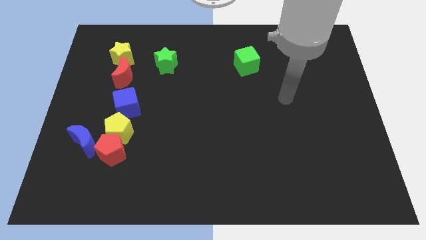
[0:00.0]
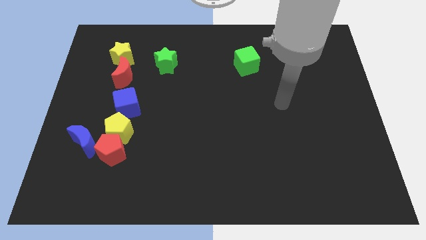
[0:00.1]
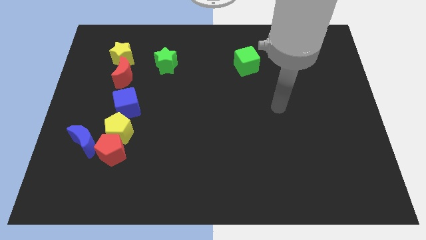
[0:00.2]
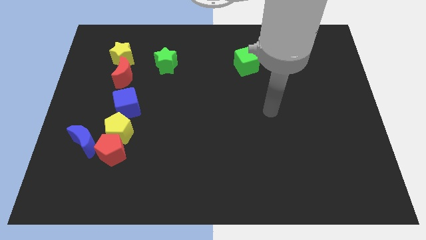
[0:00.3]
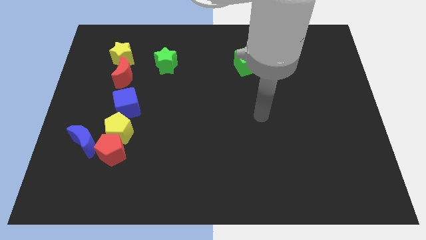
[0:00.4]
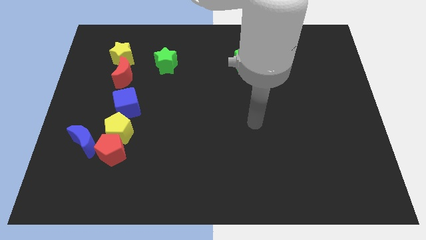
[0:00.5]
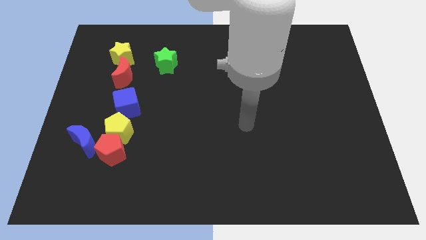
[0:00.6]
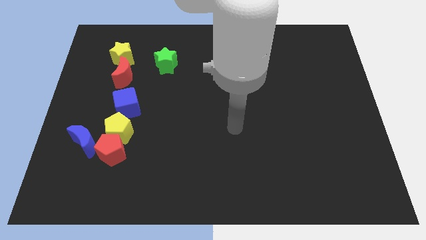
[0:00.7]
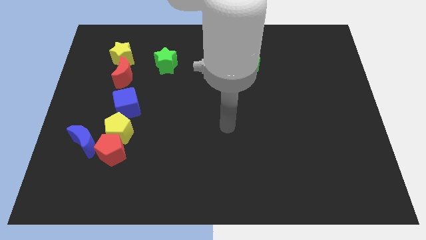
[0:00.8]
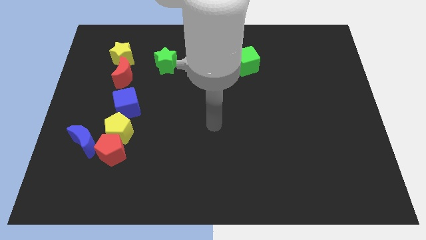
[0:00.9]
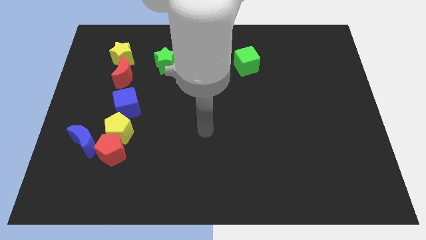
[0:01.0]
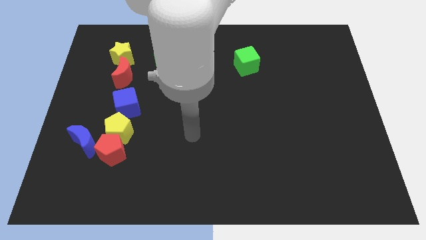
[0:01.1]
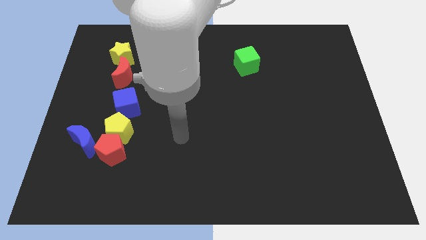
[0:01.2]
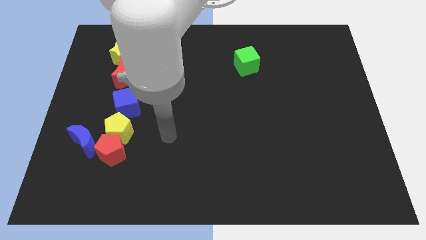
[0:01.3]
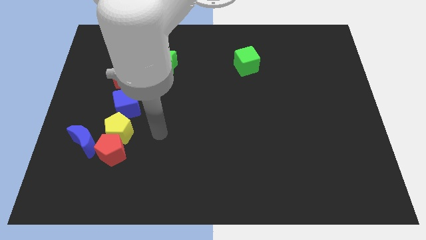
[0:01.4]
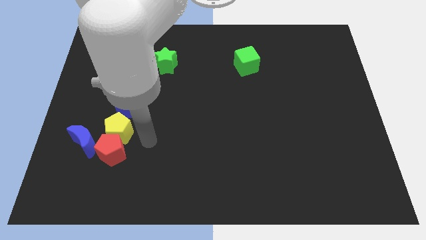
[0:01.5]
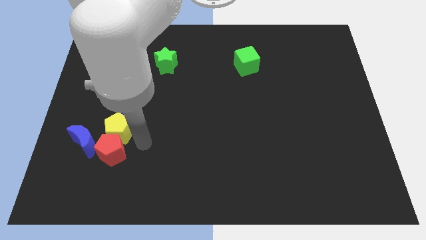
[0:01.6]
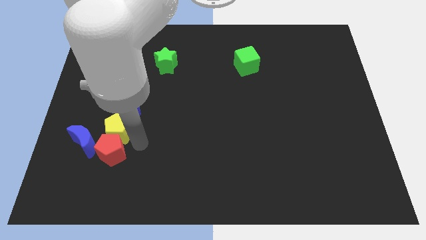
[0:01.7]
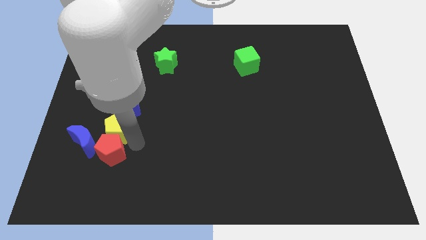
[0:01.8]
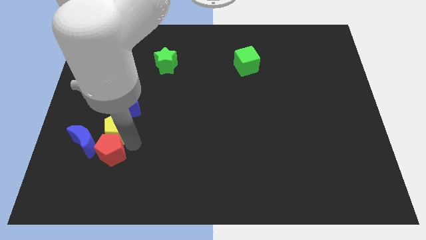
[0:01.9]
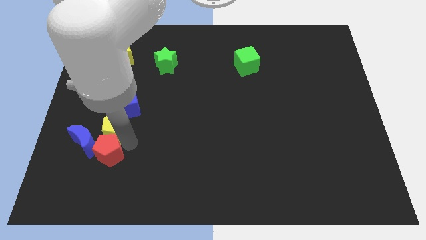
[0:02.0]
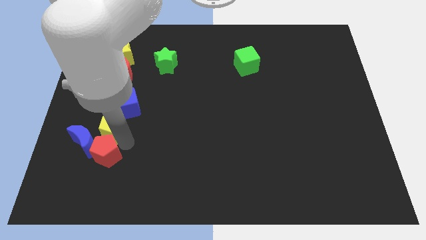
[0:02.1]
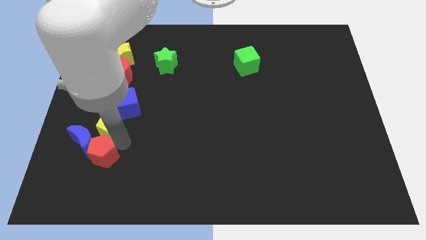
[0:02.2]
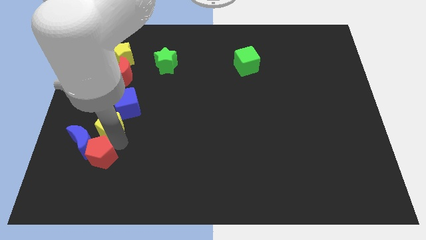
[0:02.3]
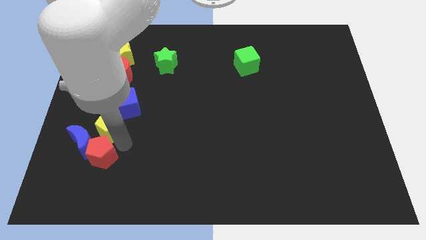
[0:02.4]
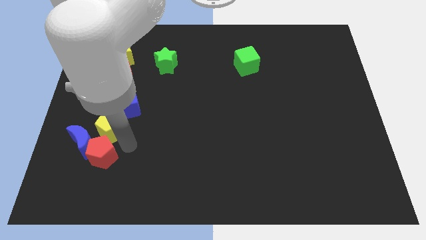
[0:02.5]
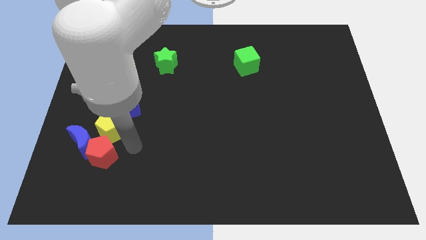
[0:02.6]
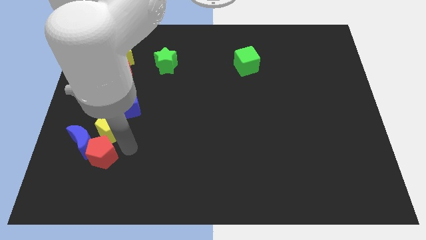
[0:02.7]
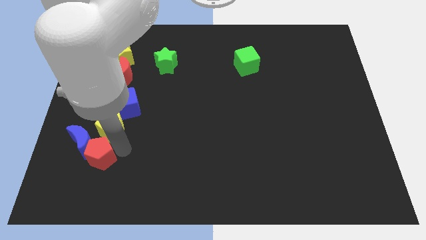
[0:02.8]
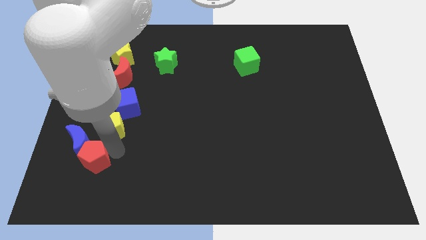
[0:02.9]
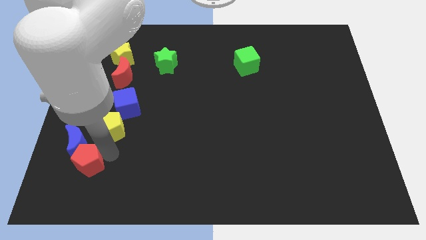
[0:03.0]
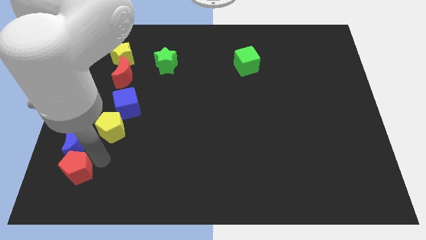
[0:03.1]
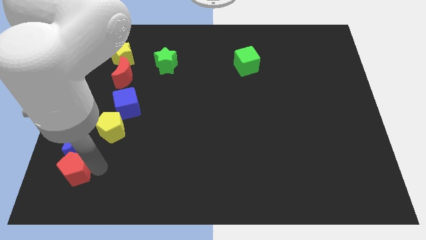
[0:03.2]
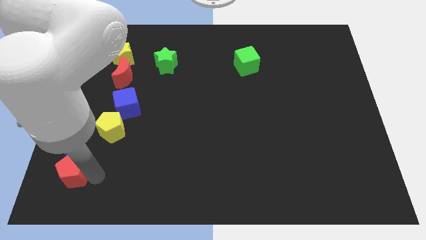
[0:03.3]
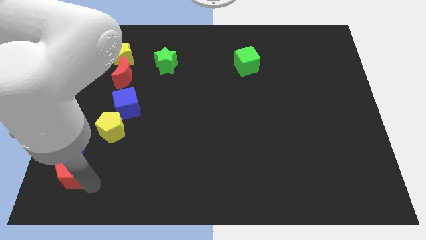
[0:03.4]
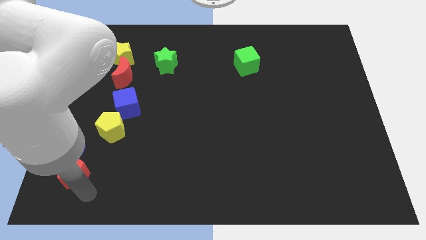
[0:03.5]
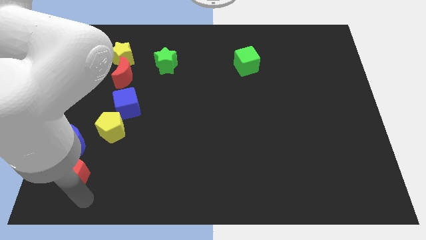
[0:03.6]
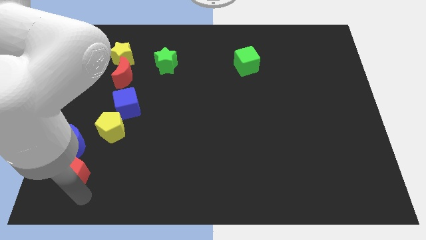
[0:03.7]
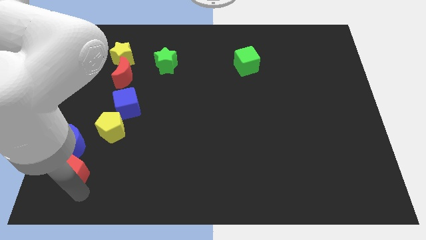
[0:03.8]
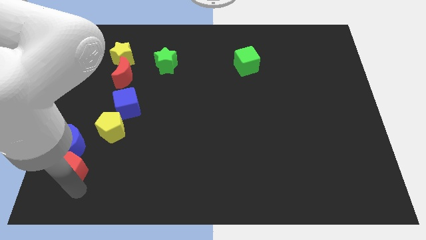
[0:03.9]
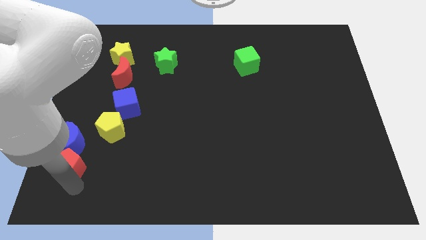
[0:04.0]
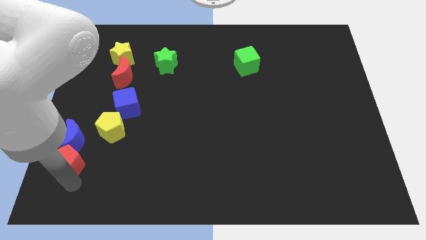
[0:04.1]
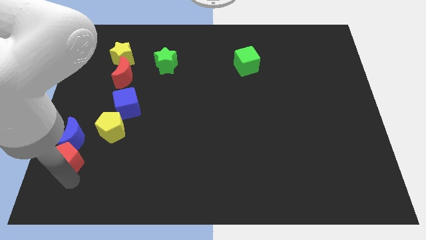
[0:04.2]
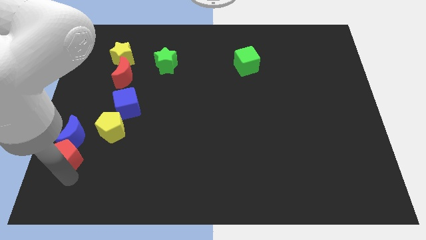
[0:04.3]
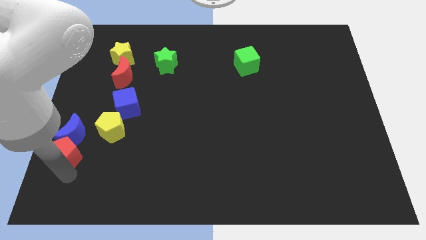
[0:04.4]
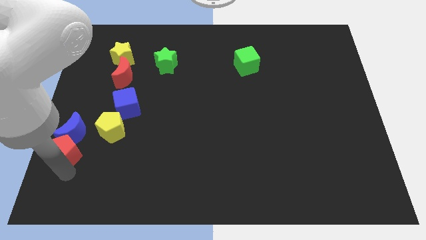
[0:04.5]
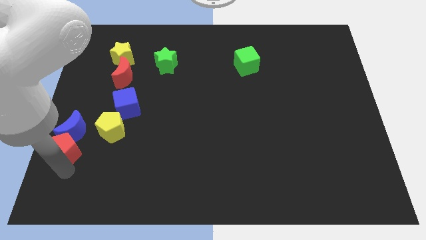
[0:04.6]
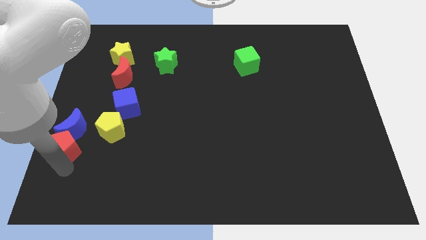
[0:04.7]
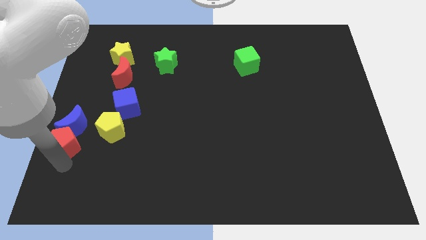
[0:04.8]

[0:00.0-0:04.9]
slide the red pentagon to the center left

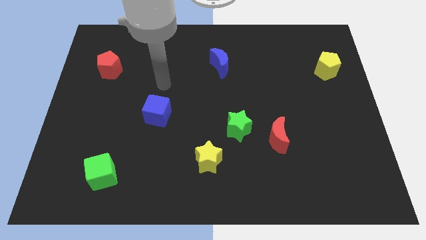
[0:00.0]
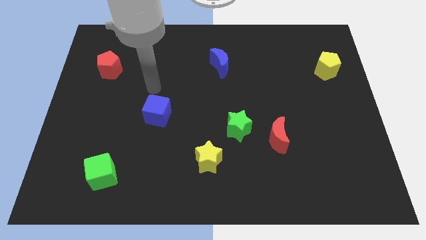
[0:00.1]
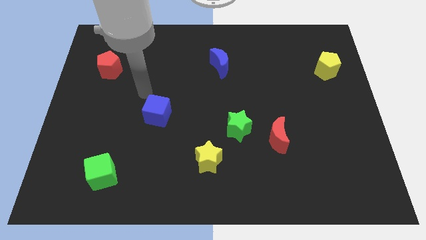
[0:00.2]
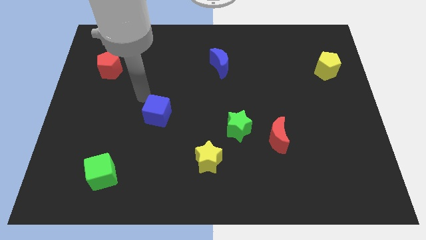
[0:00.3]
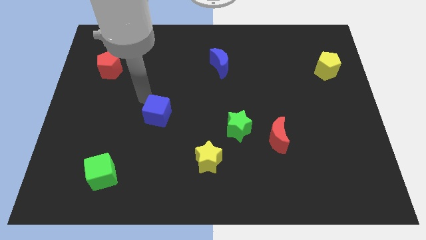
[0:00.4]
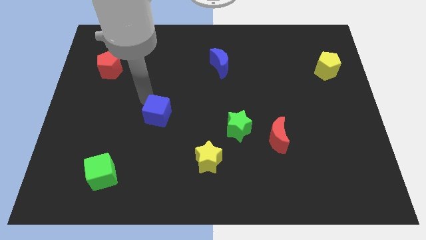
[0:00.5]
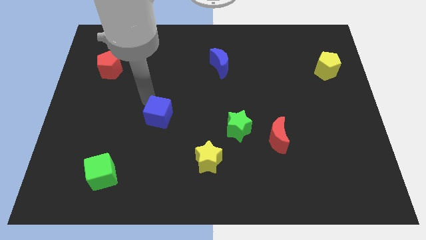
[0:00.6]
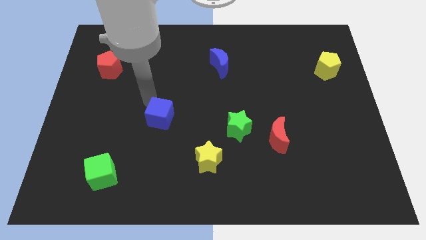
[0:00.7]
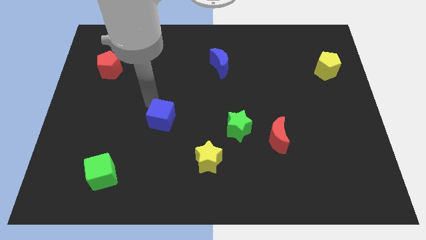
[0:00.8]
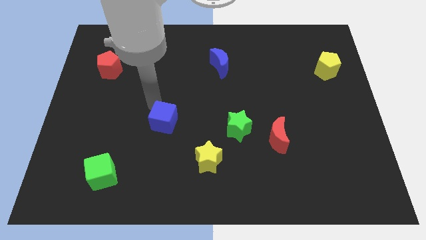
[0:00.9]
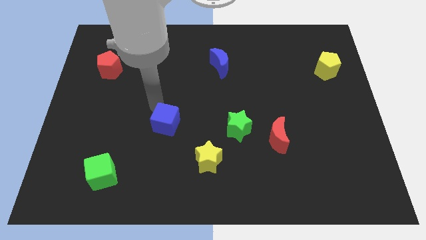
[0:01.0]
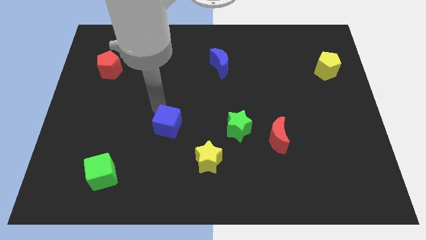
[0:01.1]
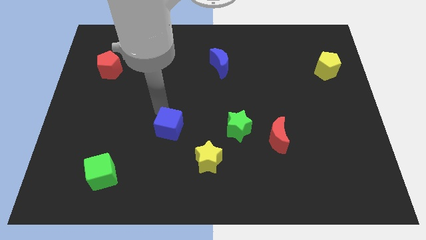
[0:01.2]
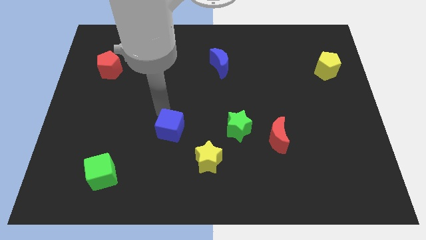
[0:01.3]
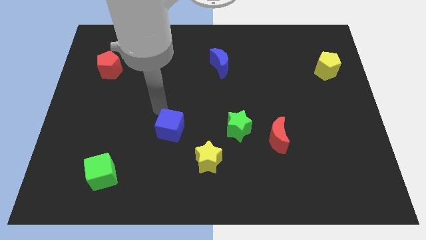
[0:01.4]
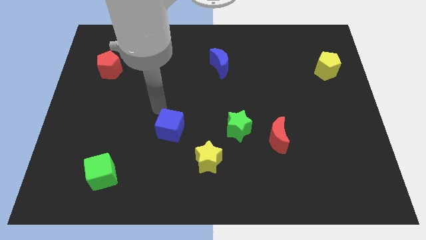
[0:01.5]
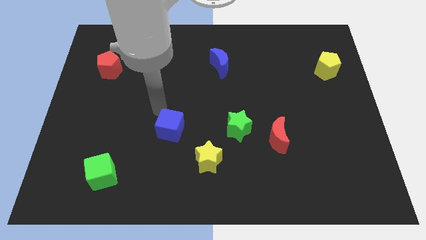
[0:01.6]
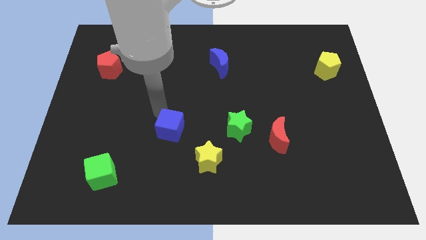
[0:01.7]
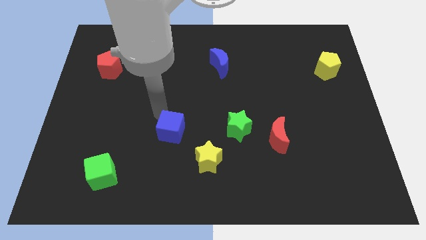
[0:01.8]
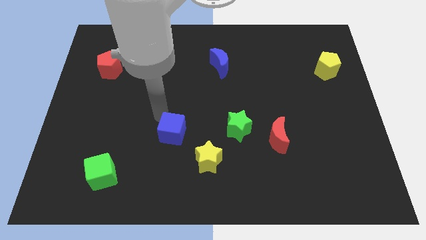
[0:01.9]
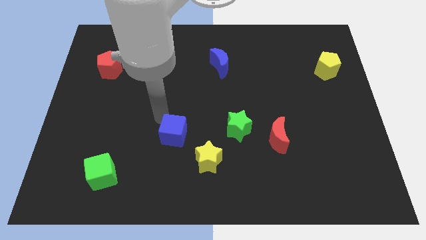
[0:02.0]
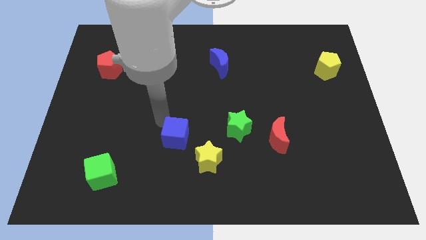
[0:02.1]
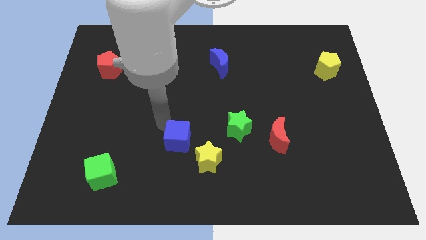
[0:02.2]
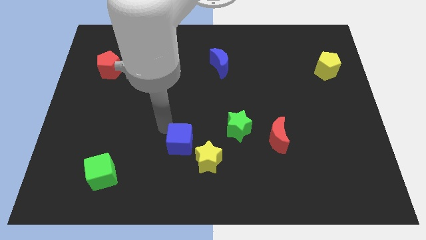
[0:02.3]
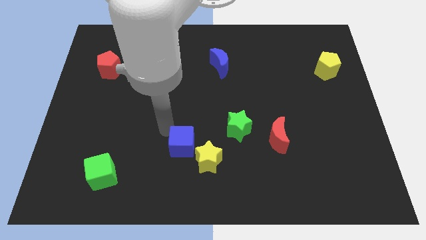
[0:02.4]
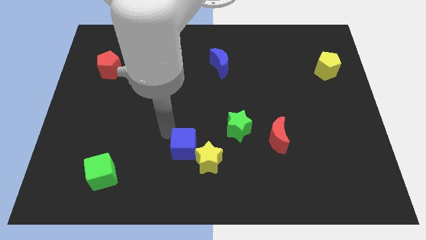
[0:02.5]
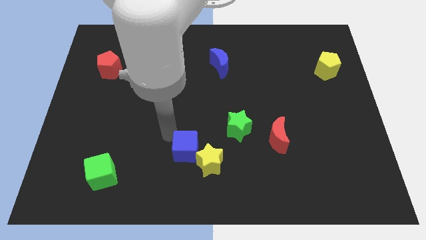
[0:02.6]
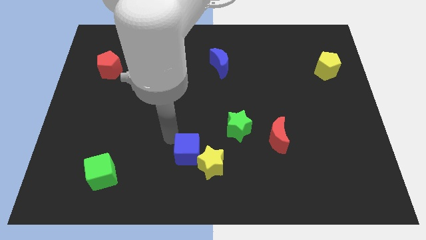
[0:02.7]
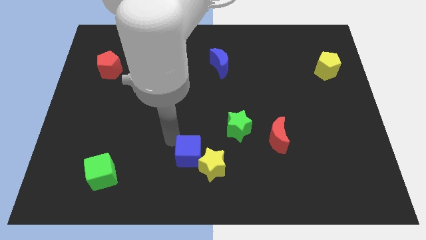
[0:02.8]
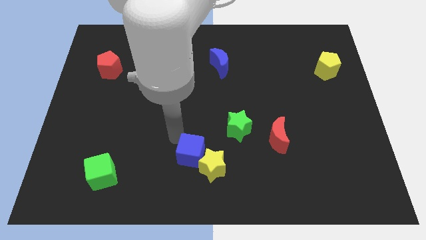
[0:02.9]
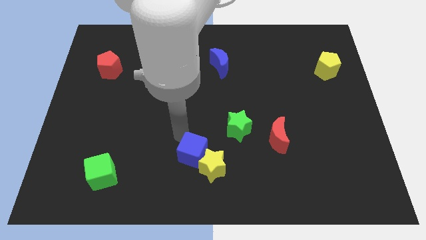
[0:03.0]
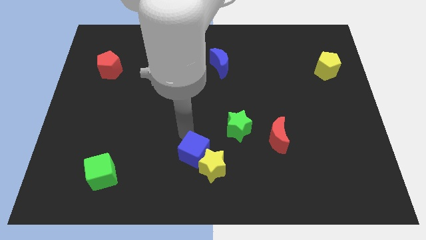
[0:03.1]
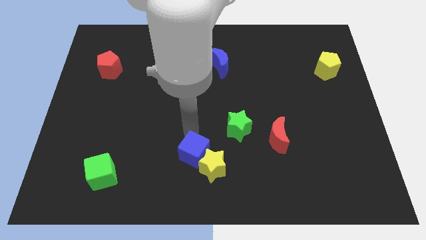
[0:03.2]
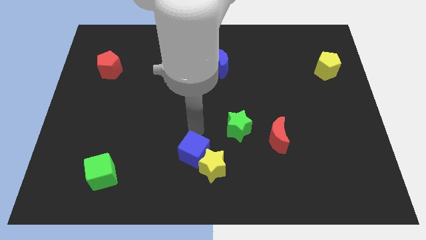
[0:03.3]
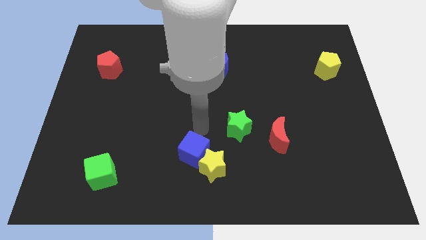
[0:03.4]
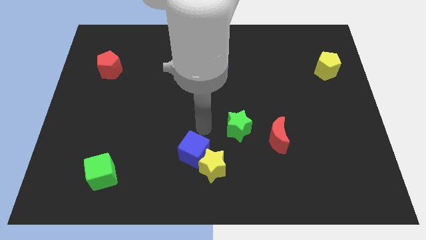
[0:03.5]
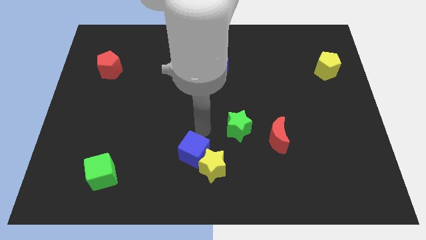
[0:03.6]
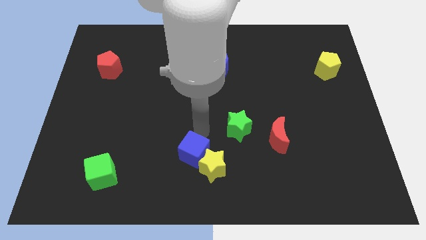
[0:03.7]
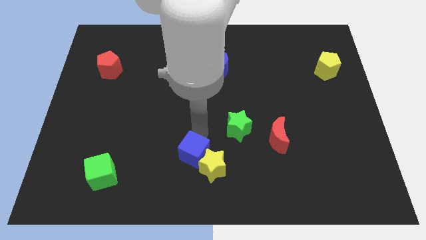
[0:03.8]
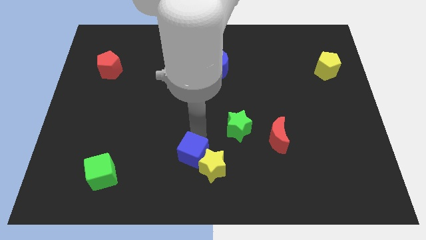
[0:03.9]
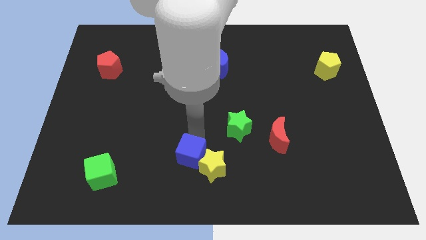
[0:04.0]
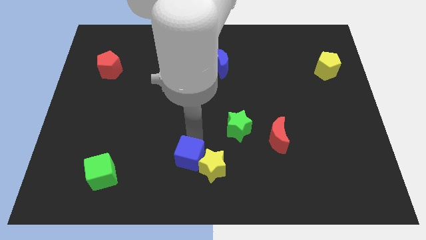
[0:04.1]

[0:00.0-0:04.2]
push the blue cube to the bottom side
